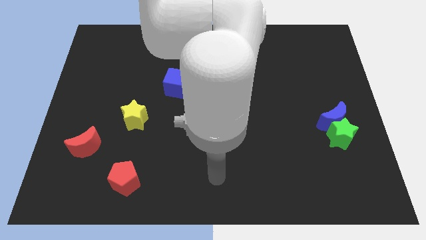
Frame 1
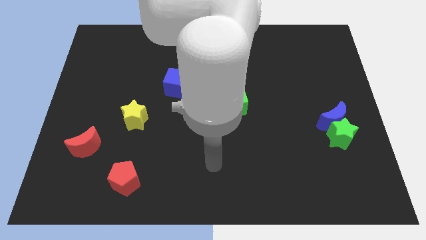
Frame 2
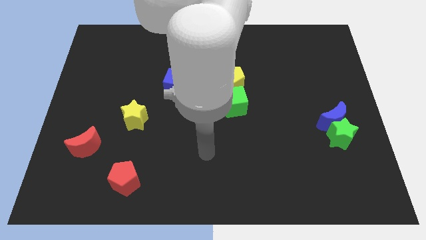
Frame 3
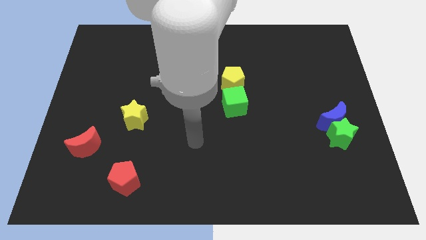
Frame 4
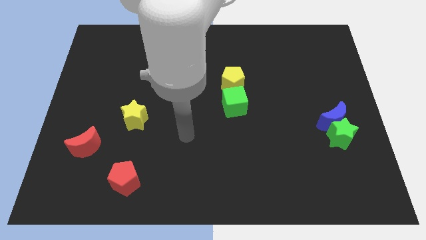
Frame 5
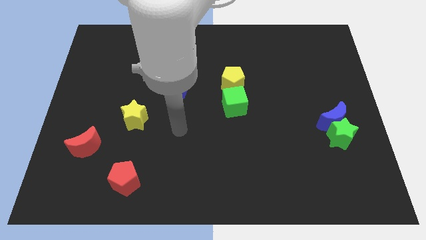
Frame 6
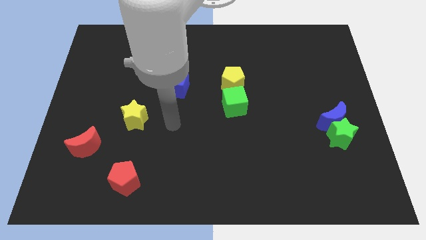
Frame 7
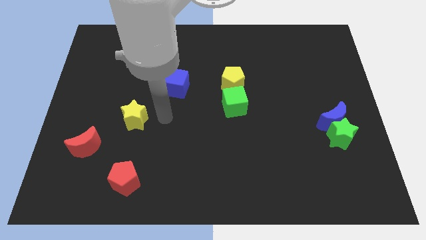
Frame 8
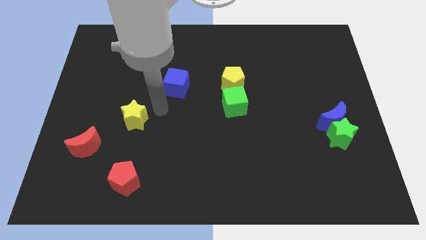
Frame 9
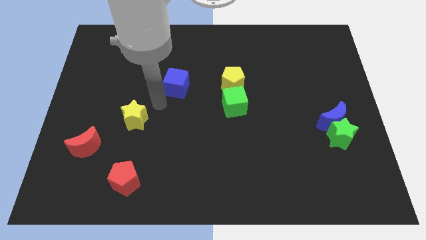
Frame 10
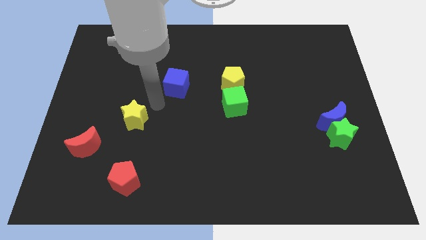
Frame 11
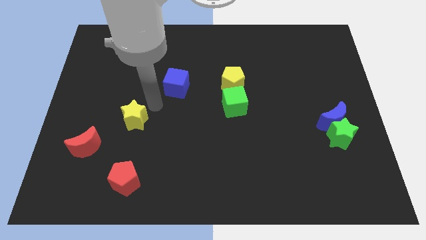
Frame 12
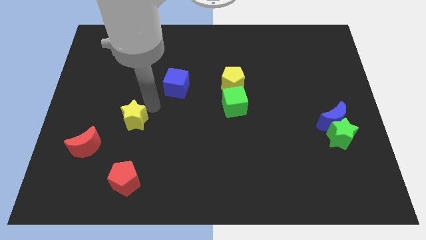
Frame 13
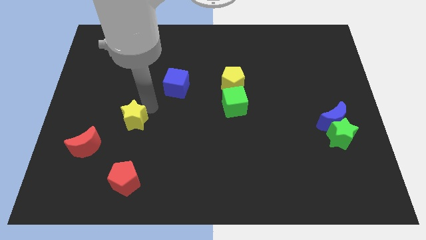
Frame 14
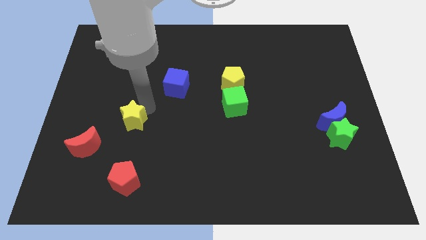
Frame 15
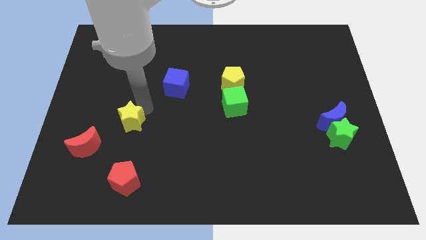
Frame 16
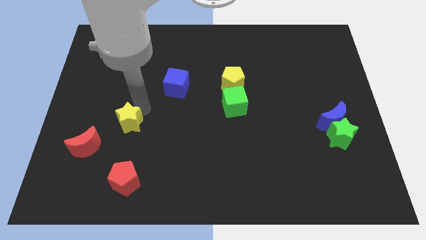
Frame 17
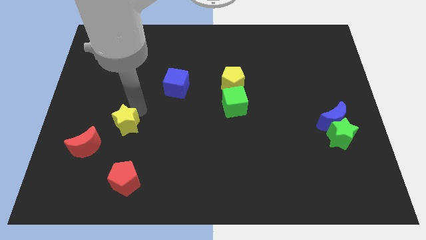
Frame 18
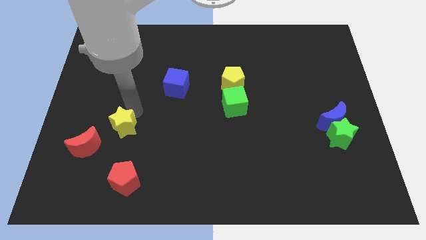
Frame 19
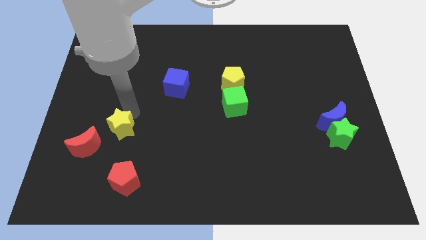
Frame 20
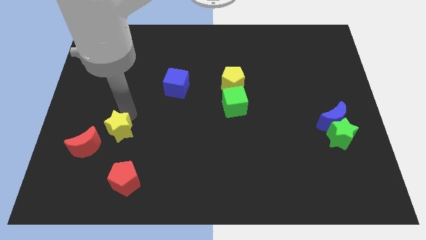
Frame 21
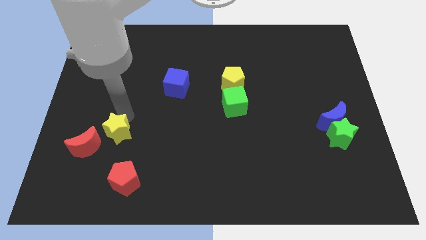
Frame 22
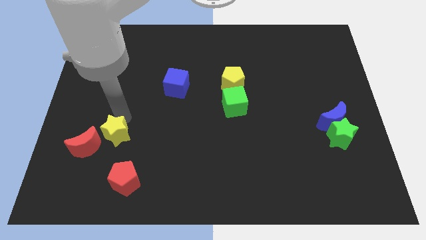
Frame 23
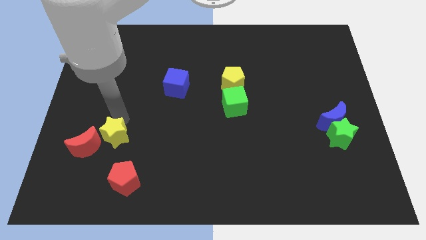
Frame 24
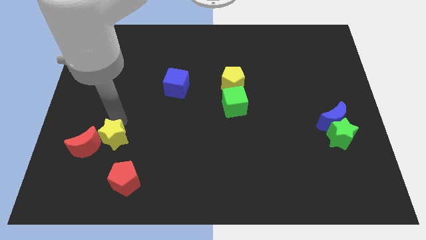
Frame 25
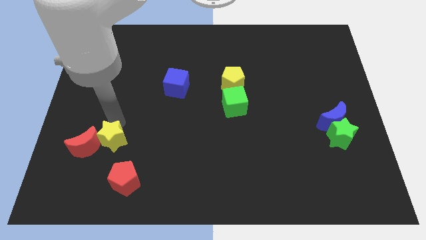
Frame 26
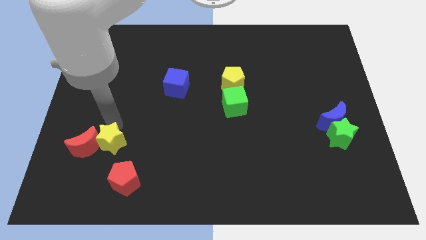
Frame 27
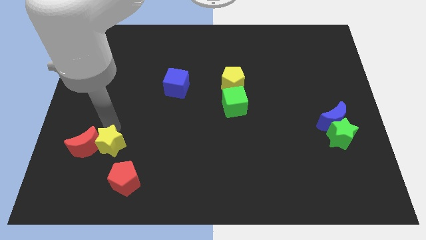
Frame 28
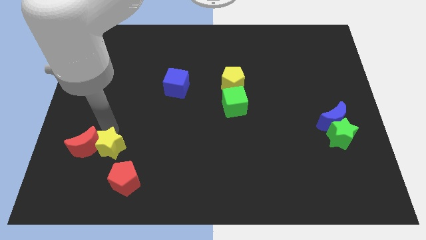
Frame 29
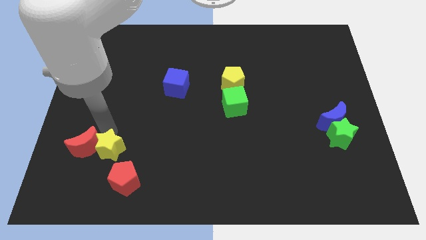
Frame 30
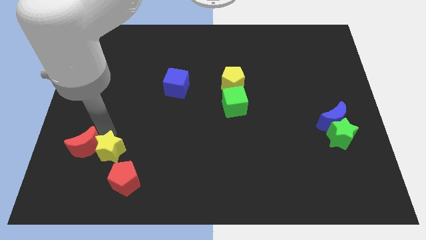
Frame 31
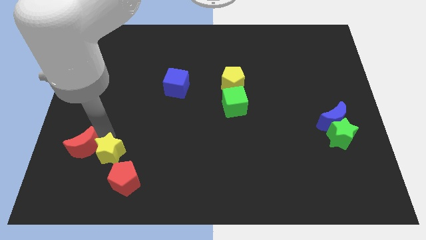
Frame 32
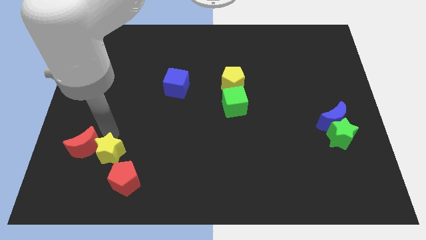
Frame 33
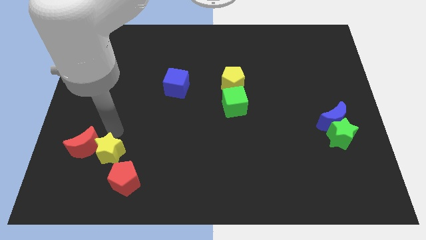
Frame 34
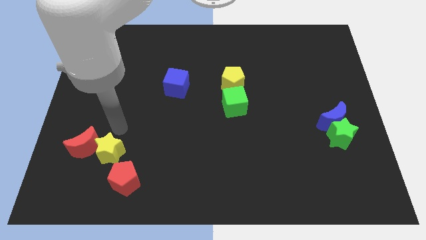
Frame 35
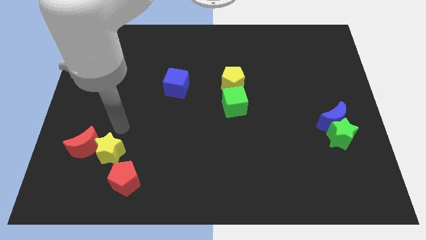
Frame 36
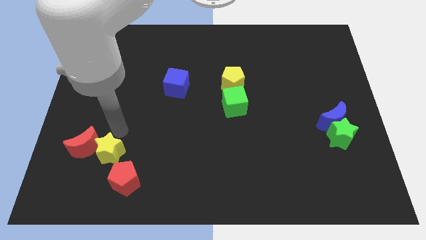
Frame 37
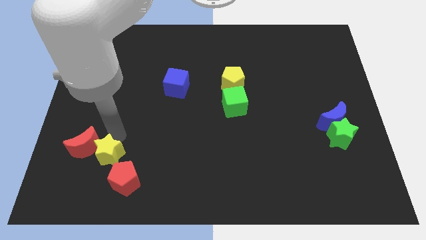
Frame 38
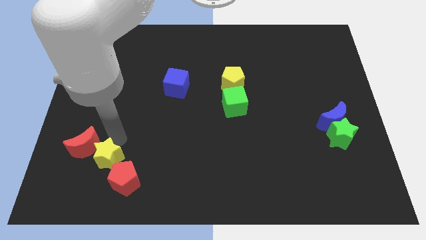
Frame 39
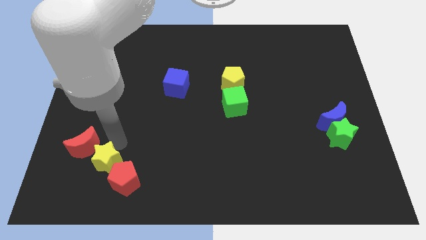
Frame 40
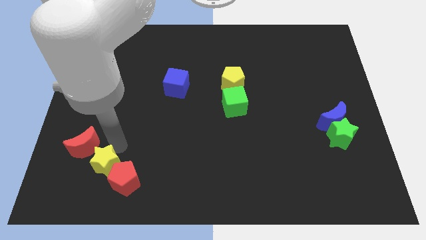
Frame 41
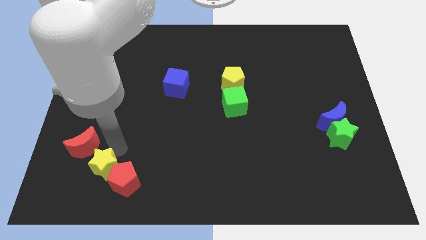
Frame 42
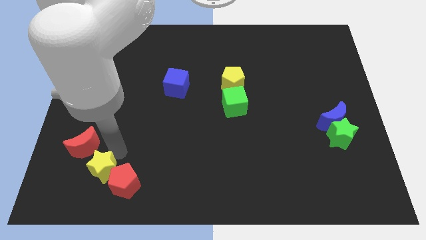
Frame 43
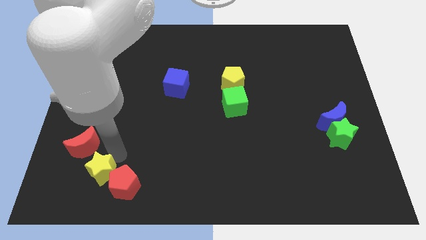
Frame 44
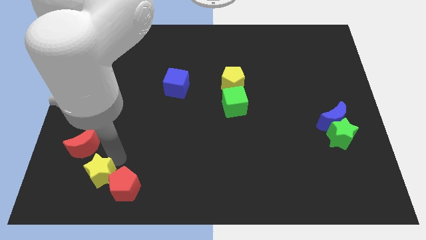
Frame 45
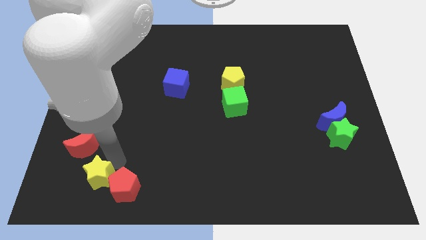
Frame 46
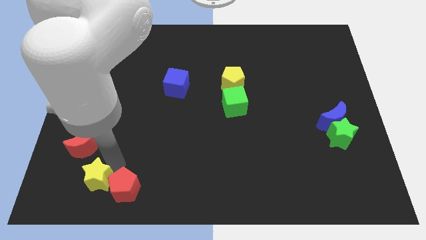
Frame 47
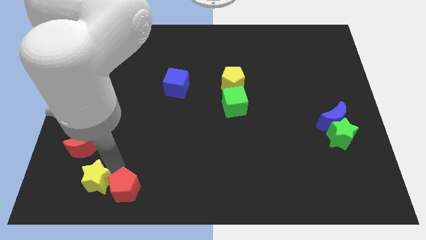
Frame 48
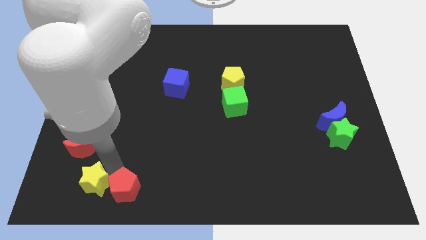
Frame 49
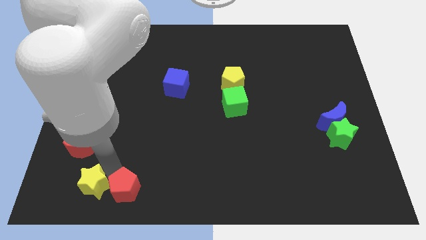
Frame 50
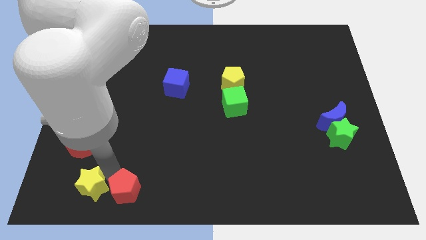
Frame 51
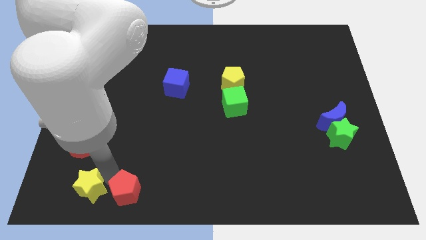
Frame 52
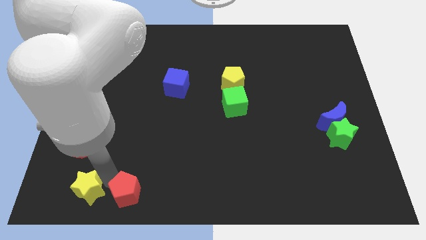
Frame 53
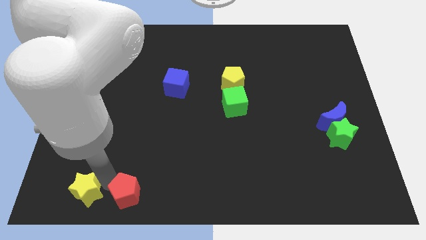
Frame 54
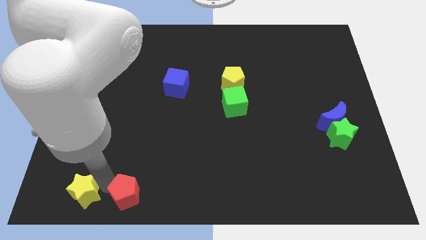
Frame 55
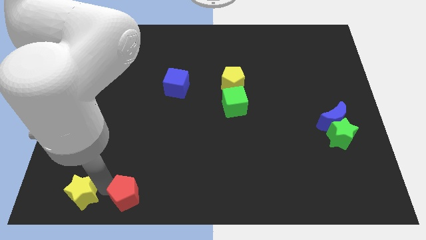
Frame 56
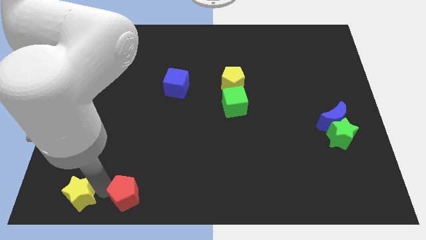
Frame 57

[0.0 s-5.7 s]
slide the yellow star to the bottom left of the board
